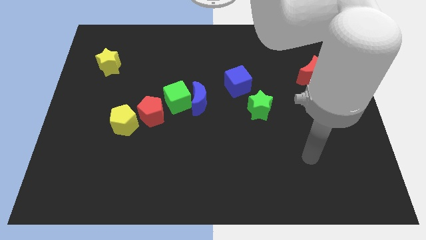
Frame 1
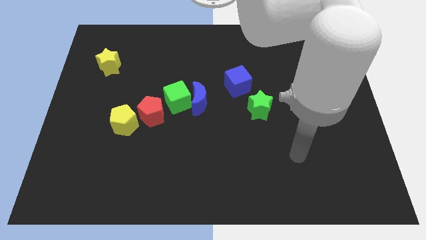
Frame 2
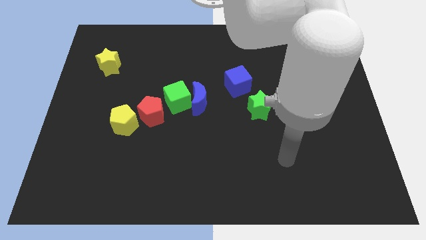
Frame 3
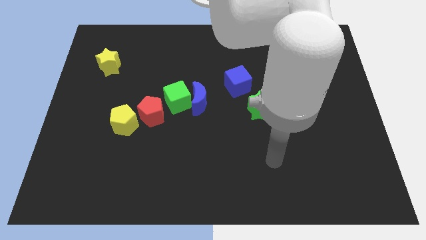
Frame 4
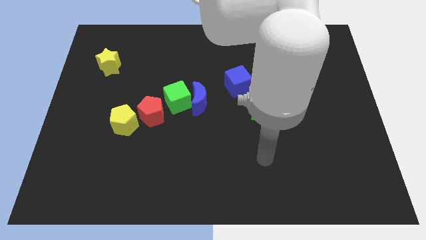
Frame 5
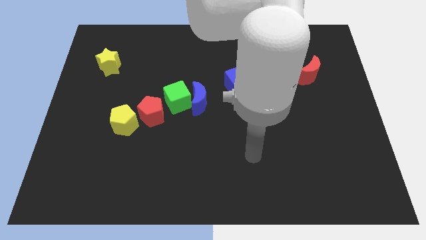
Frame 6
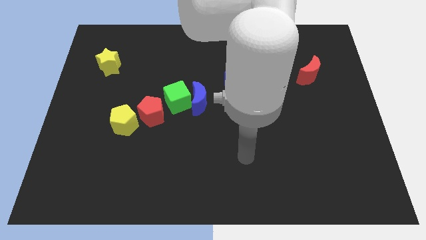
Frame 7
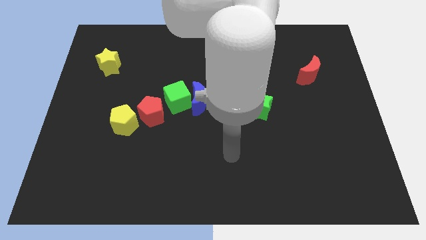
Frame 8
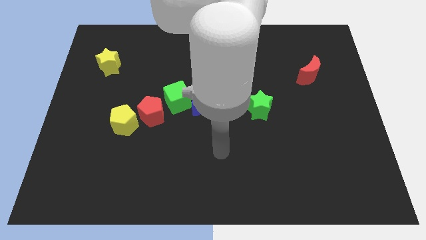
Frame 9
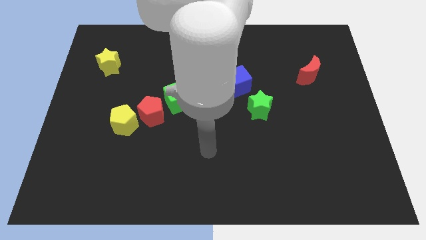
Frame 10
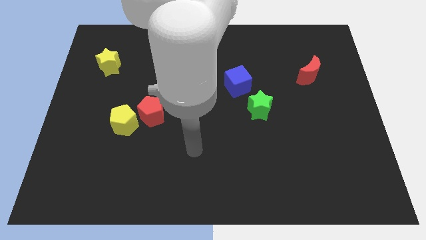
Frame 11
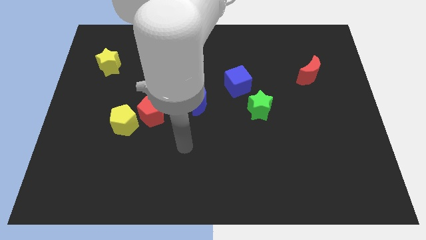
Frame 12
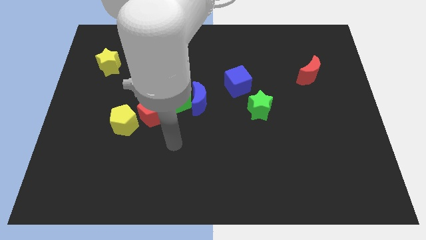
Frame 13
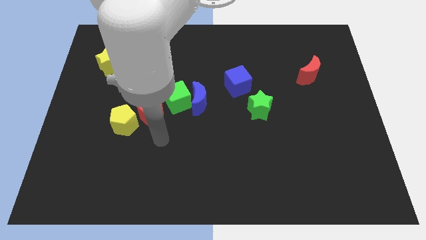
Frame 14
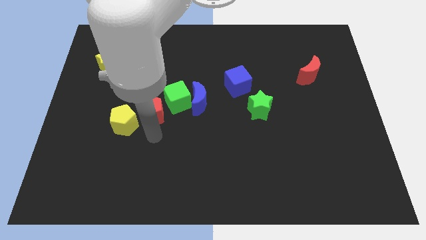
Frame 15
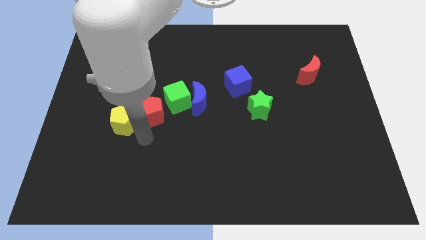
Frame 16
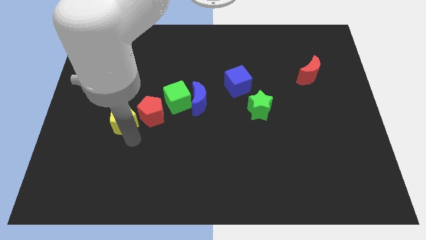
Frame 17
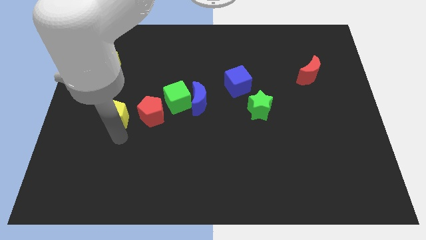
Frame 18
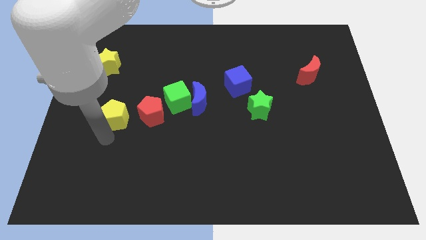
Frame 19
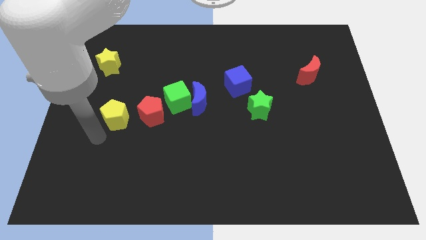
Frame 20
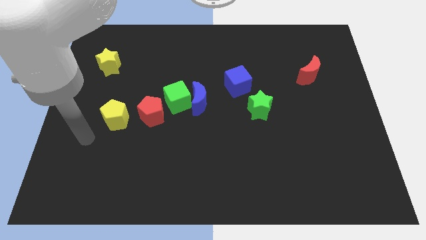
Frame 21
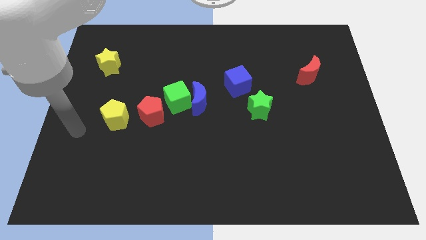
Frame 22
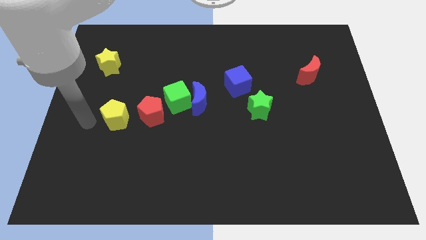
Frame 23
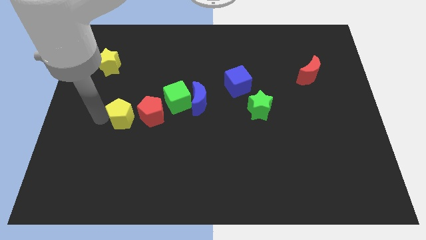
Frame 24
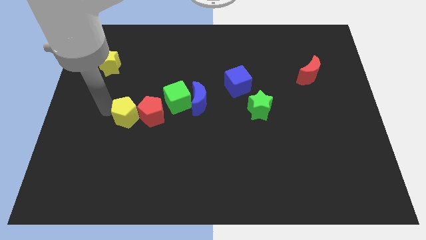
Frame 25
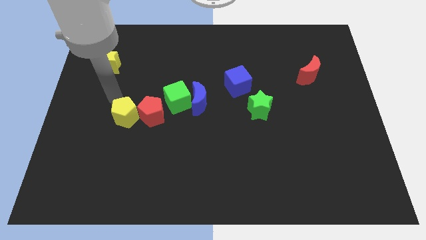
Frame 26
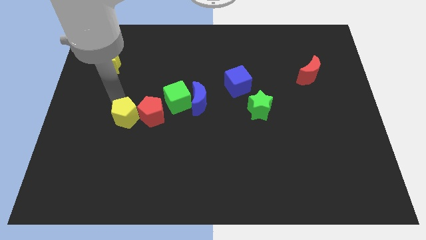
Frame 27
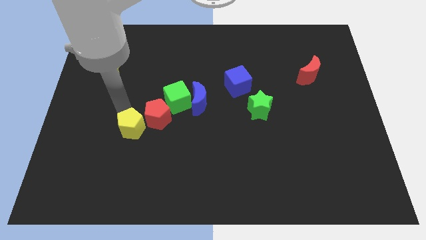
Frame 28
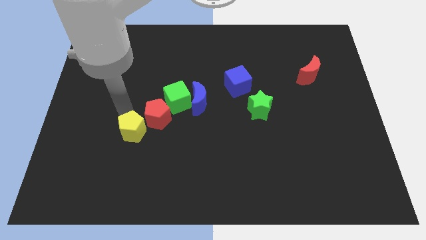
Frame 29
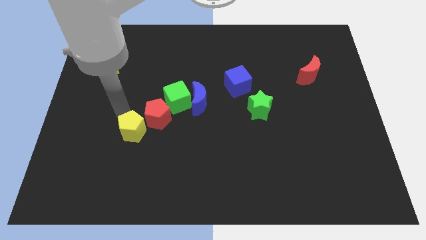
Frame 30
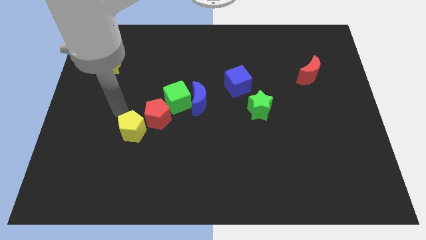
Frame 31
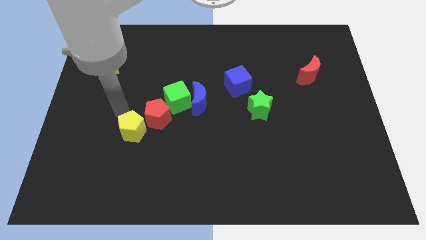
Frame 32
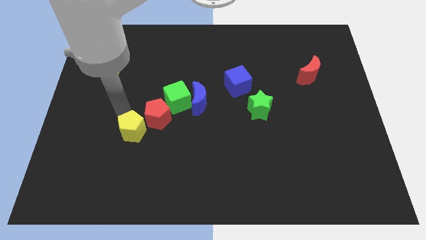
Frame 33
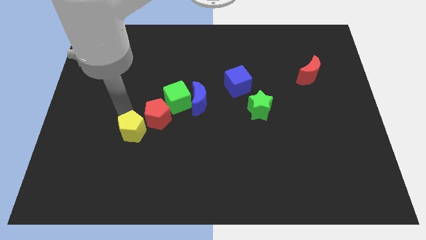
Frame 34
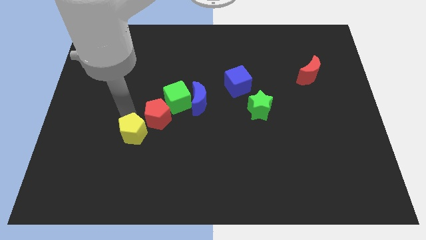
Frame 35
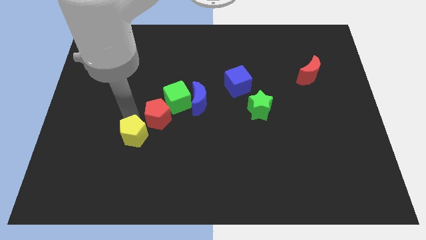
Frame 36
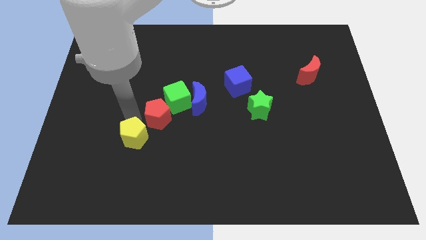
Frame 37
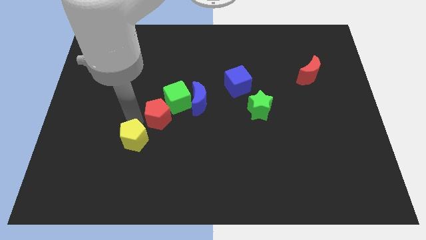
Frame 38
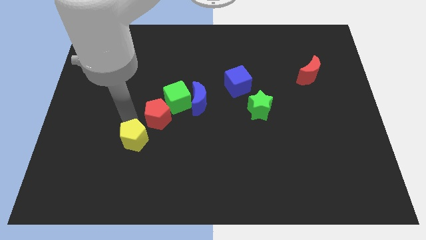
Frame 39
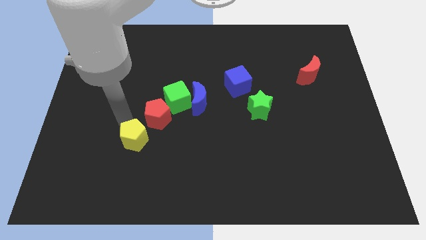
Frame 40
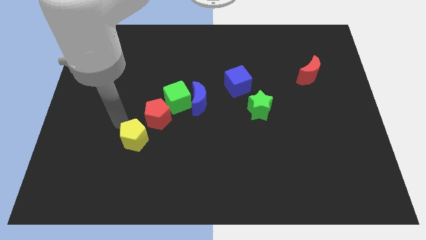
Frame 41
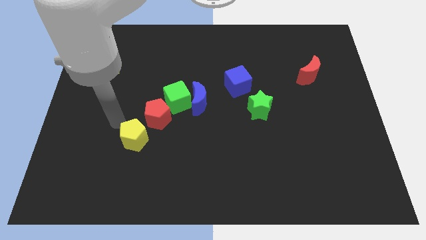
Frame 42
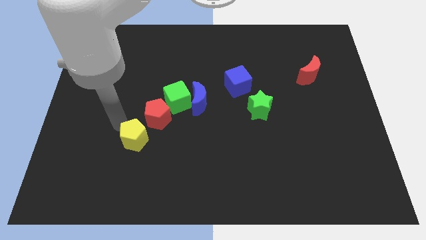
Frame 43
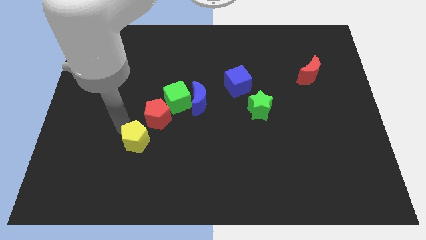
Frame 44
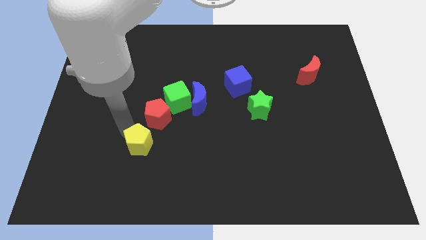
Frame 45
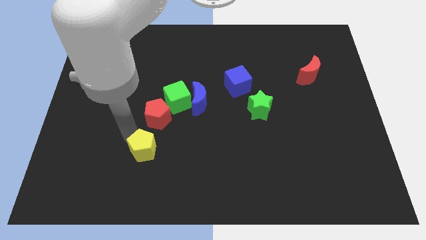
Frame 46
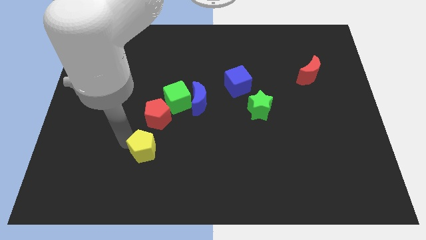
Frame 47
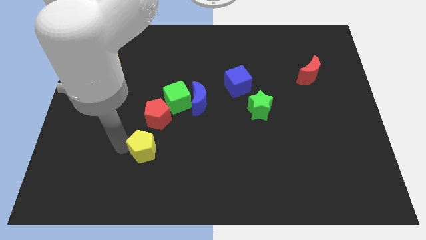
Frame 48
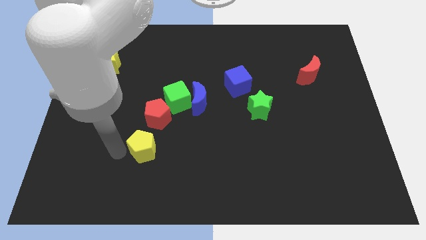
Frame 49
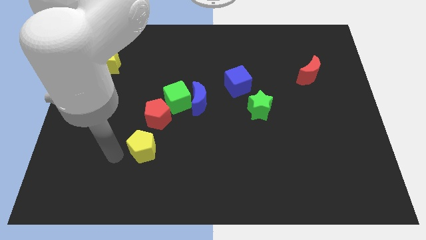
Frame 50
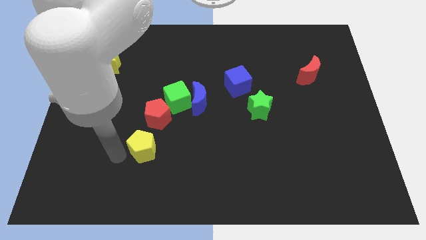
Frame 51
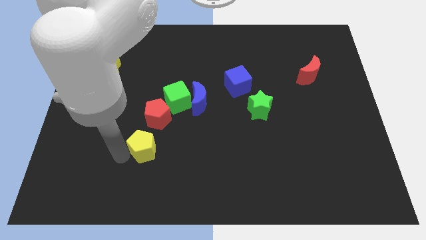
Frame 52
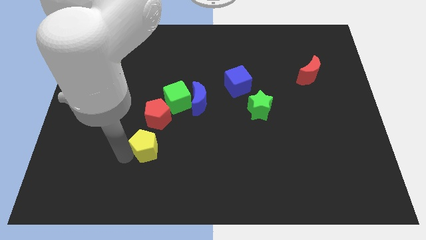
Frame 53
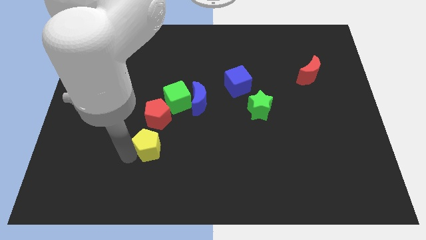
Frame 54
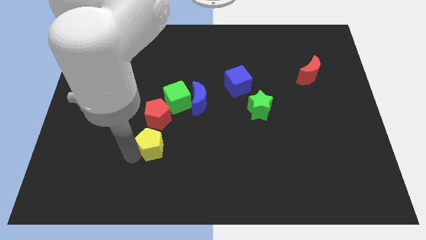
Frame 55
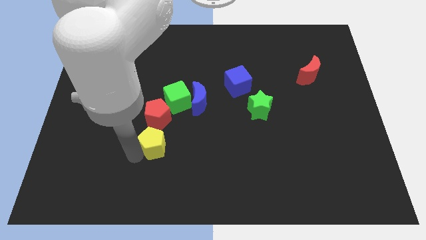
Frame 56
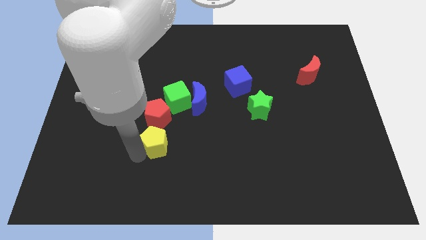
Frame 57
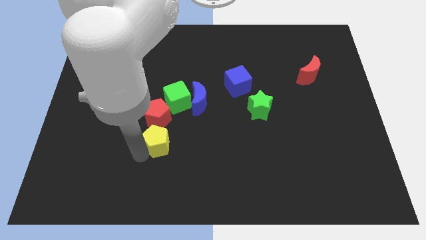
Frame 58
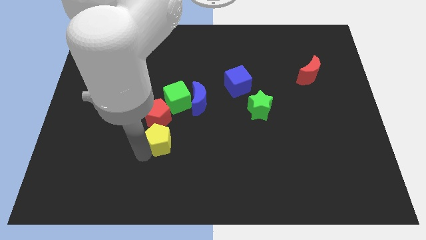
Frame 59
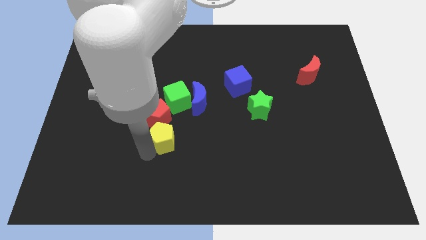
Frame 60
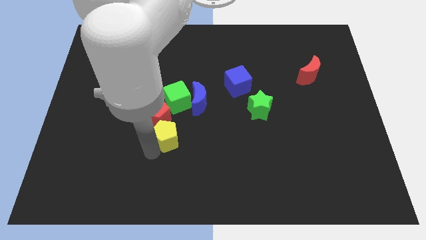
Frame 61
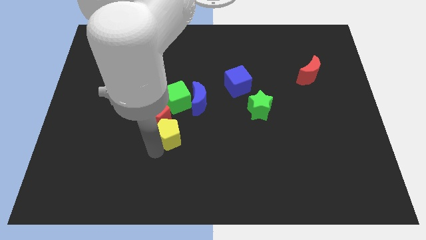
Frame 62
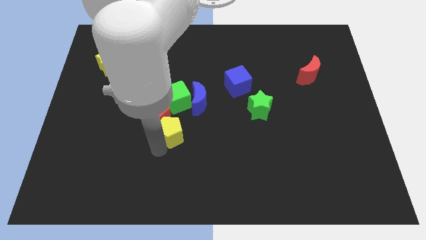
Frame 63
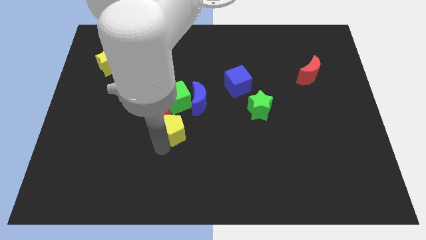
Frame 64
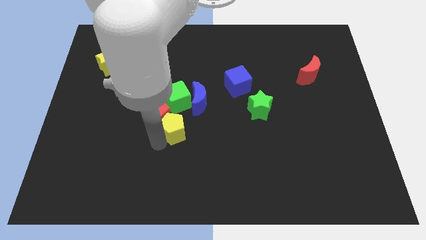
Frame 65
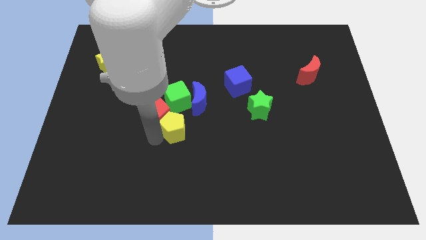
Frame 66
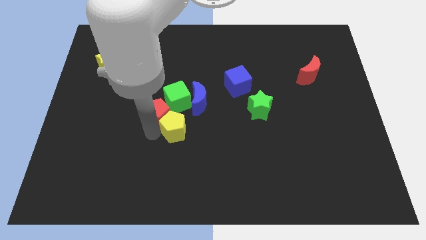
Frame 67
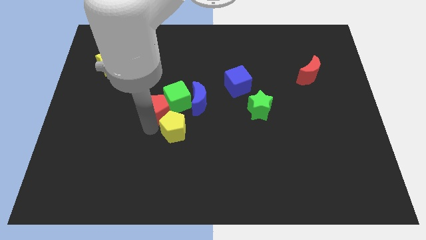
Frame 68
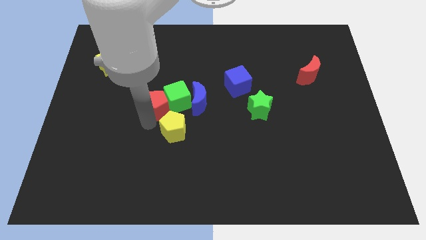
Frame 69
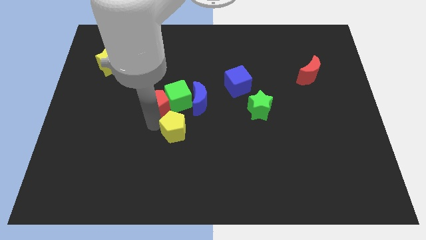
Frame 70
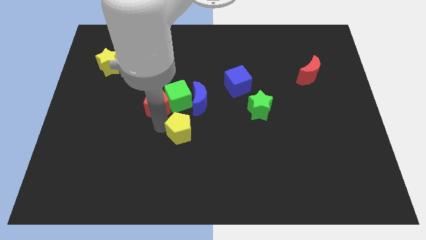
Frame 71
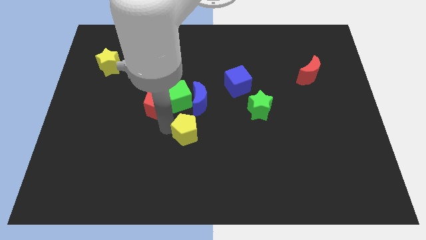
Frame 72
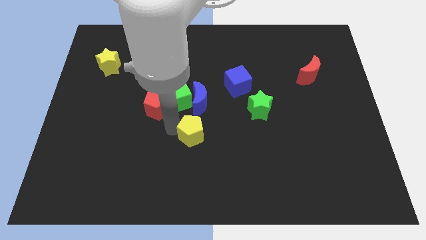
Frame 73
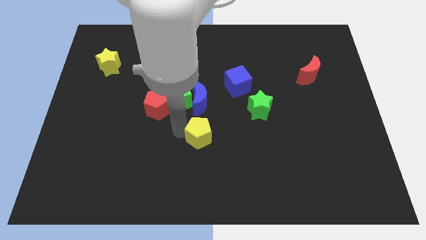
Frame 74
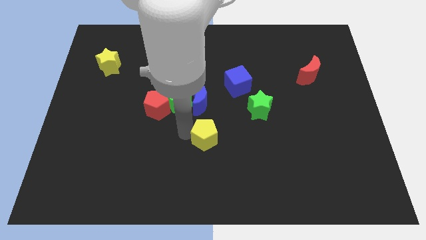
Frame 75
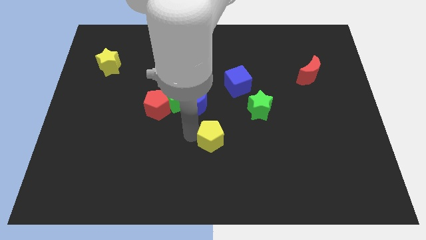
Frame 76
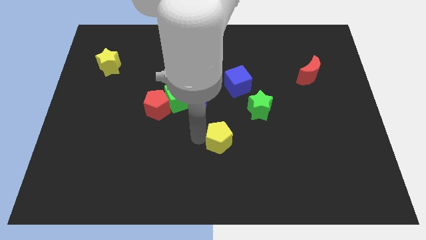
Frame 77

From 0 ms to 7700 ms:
move the yellow pentagon right

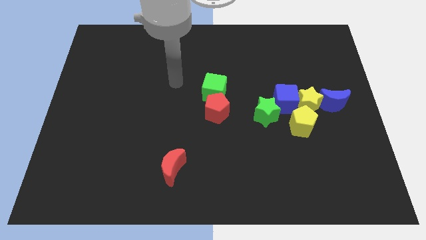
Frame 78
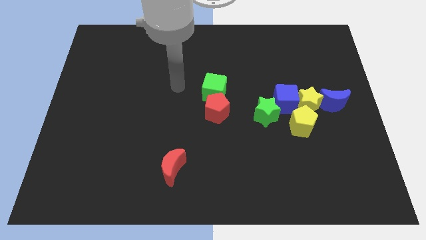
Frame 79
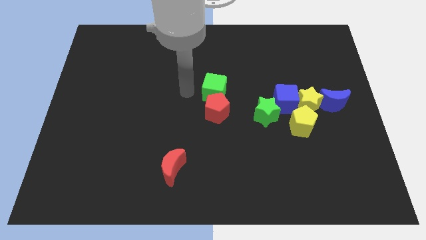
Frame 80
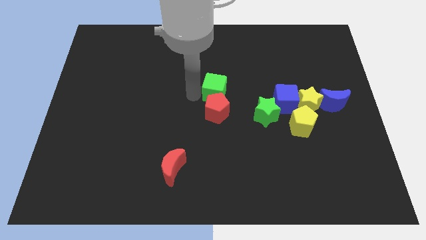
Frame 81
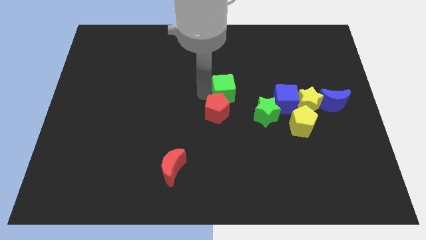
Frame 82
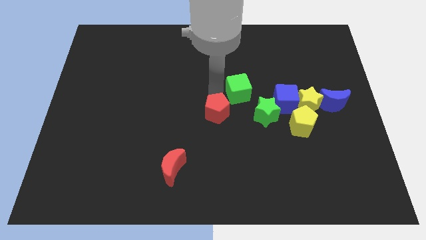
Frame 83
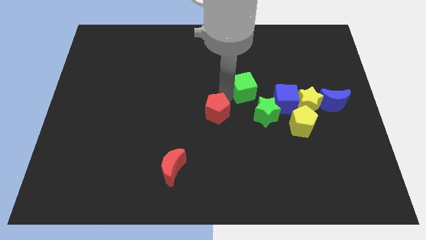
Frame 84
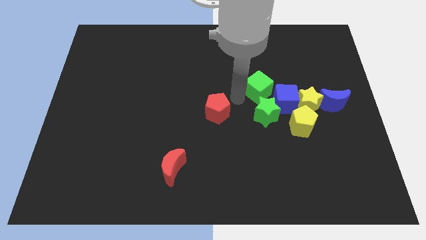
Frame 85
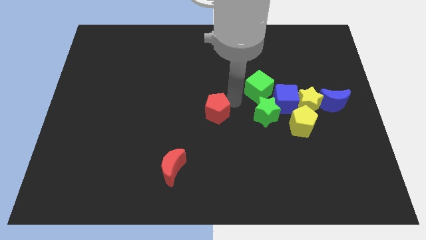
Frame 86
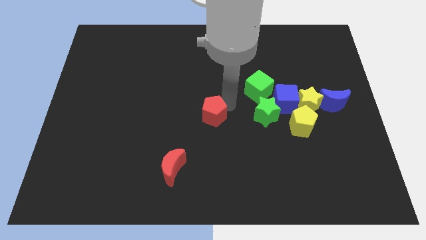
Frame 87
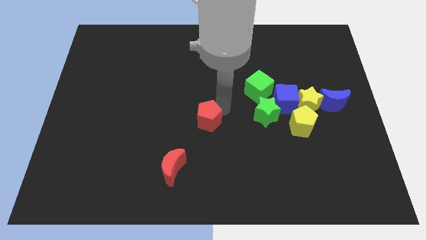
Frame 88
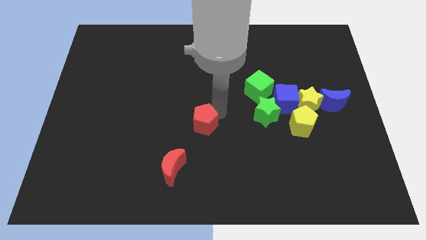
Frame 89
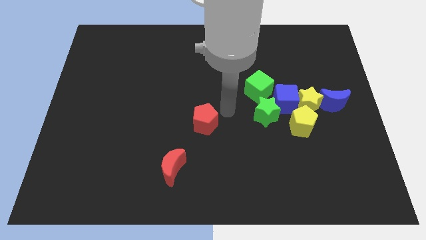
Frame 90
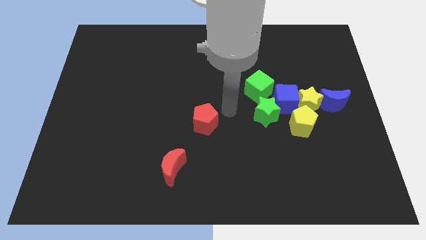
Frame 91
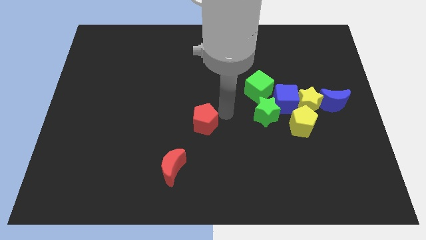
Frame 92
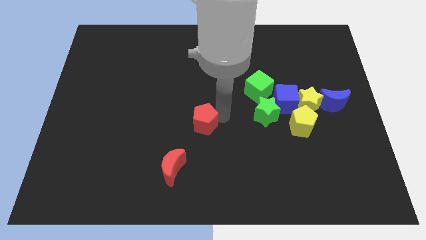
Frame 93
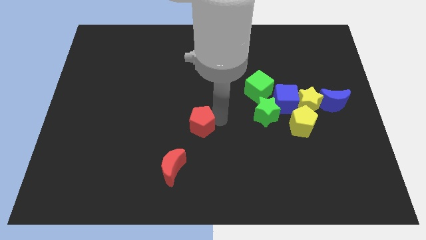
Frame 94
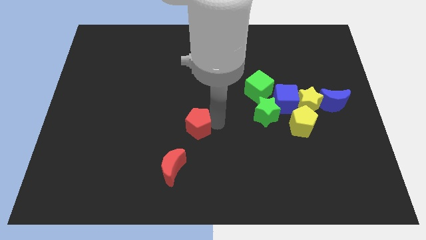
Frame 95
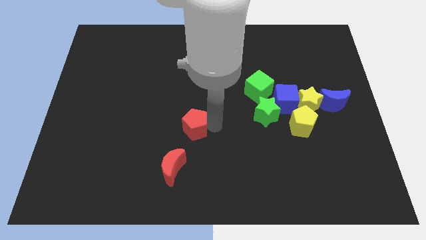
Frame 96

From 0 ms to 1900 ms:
push the red pentagon somewhat diagonally down and to the left
